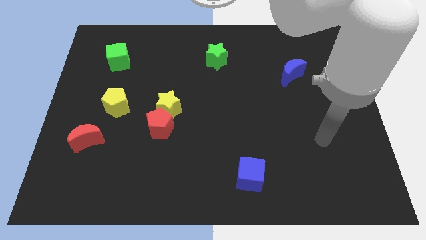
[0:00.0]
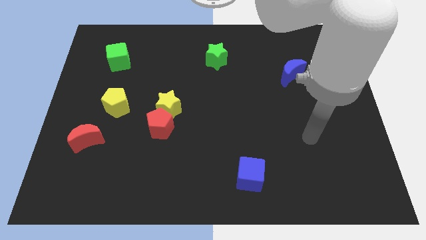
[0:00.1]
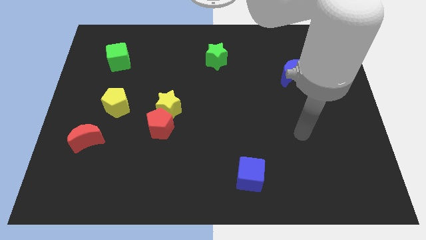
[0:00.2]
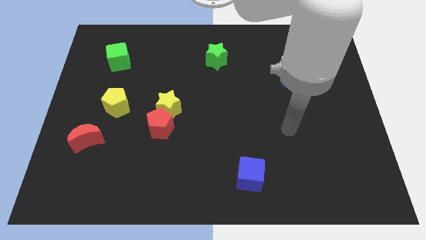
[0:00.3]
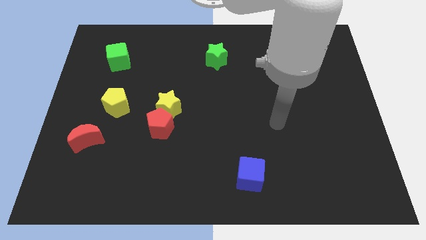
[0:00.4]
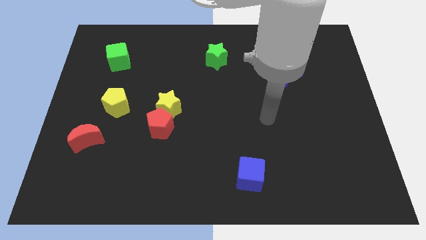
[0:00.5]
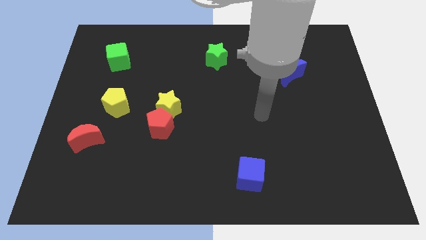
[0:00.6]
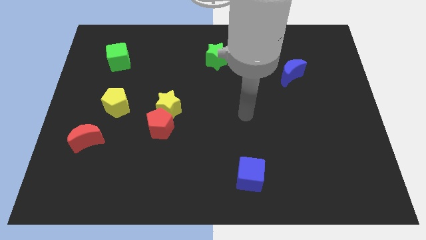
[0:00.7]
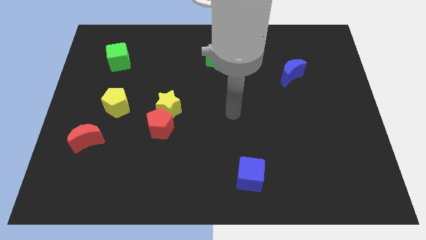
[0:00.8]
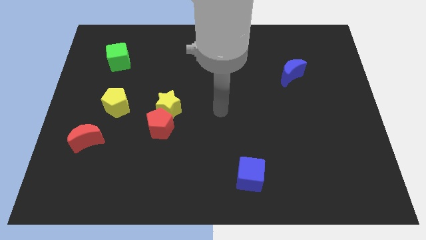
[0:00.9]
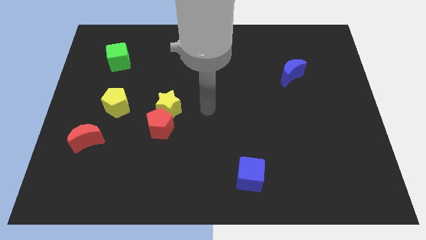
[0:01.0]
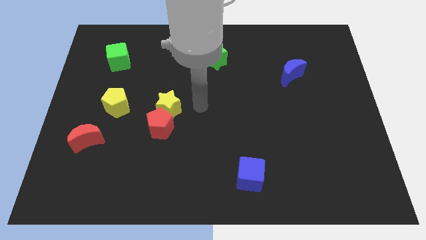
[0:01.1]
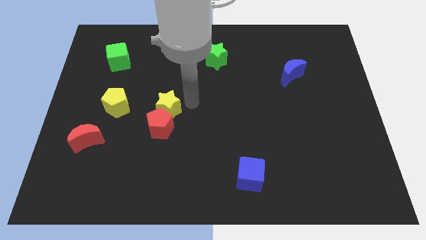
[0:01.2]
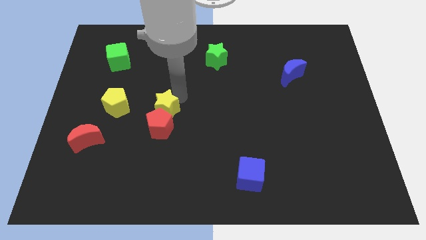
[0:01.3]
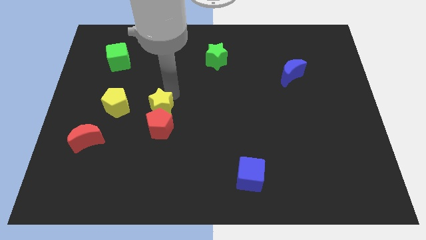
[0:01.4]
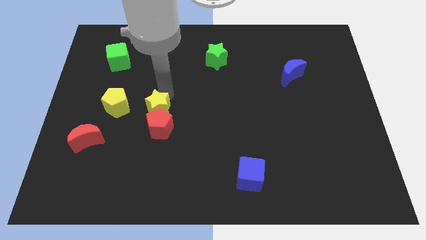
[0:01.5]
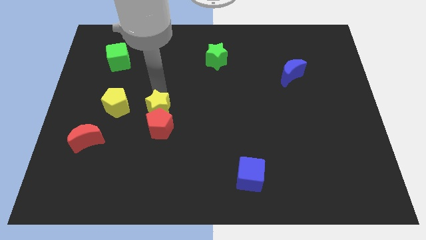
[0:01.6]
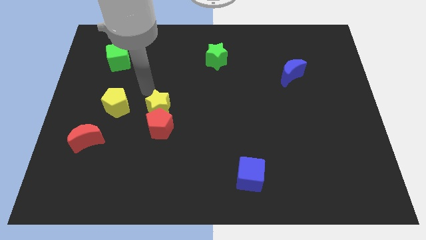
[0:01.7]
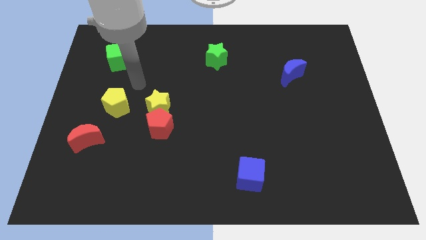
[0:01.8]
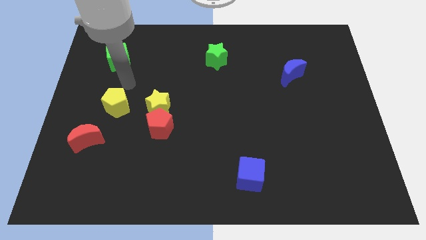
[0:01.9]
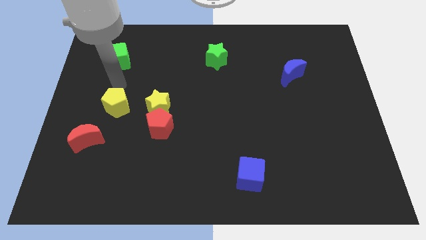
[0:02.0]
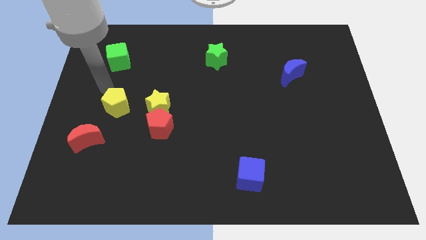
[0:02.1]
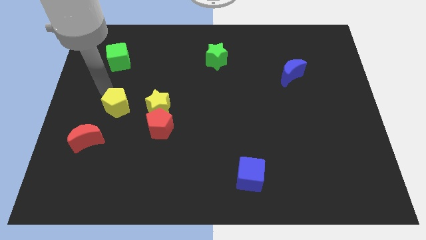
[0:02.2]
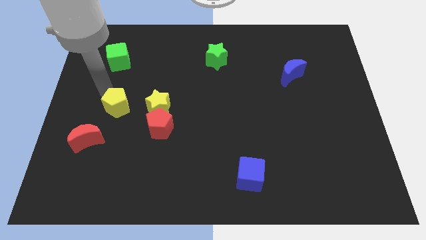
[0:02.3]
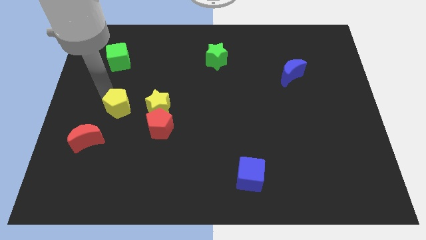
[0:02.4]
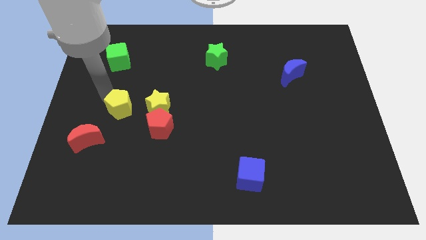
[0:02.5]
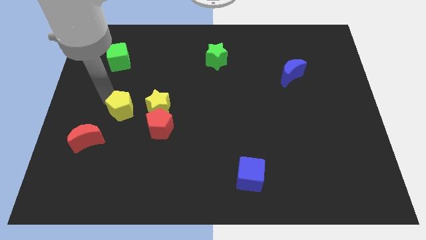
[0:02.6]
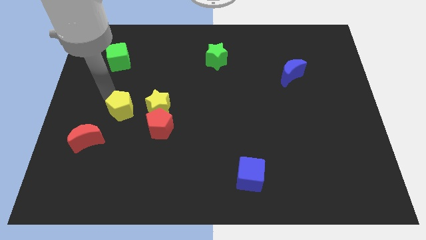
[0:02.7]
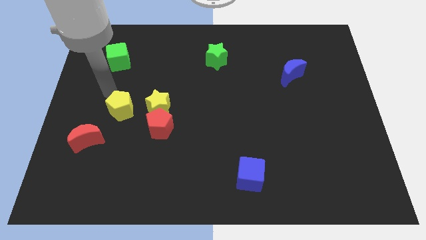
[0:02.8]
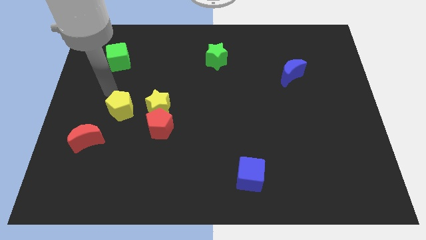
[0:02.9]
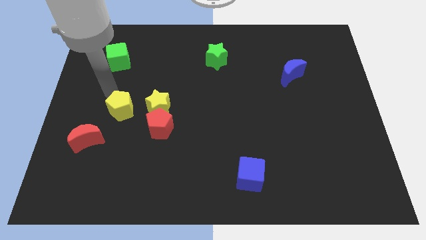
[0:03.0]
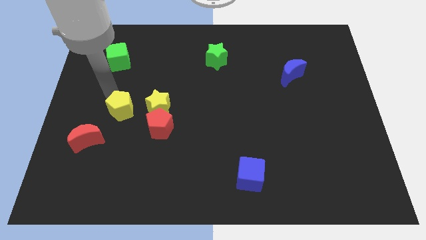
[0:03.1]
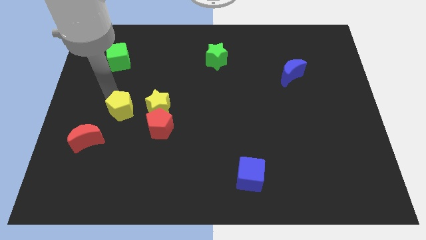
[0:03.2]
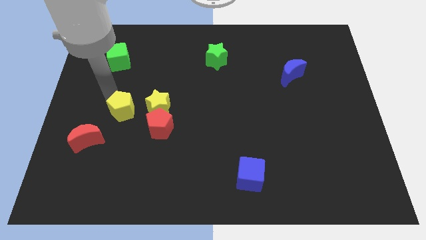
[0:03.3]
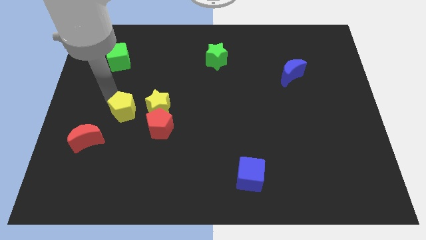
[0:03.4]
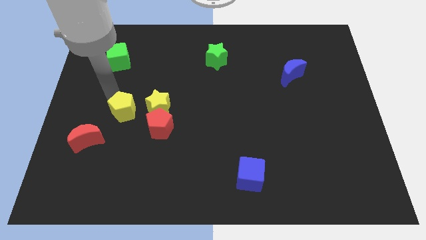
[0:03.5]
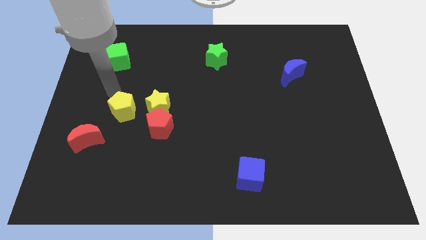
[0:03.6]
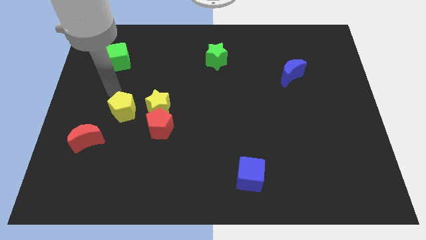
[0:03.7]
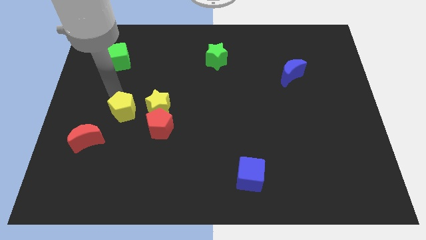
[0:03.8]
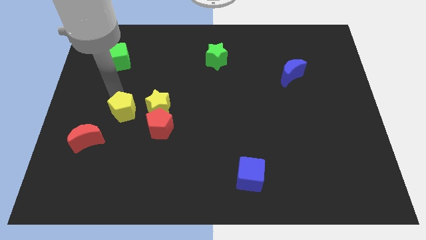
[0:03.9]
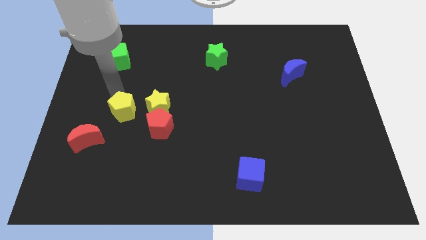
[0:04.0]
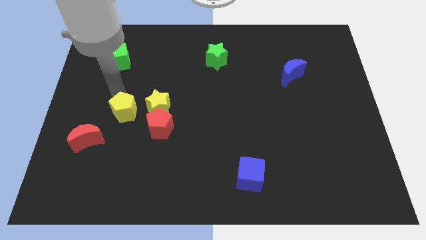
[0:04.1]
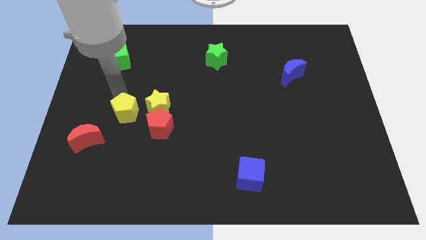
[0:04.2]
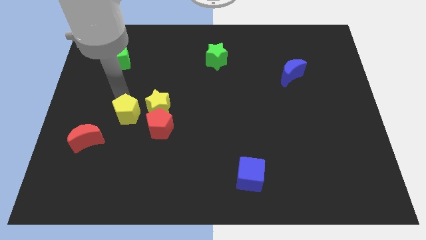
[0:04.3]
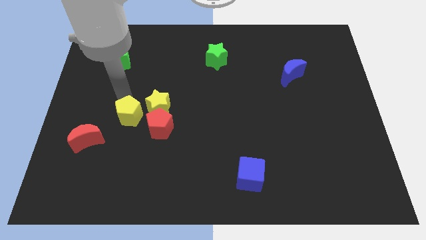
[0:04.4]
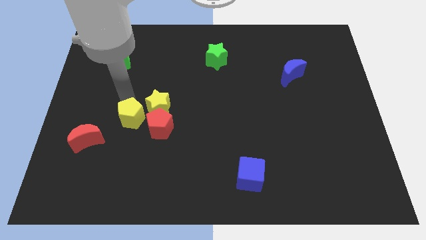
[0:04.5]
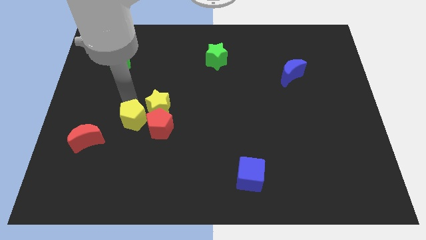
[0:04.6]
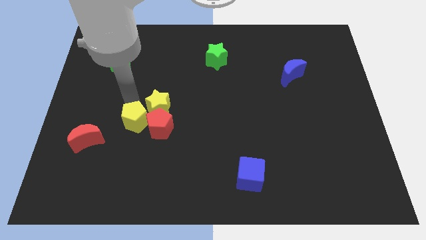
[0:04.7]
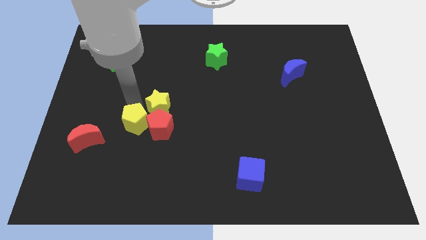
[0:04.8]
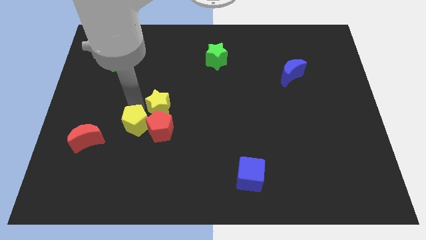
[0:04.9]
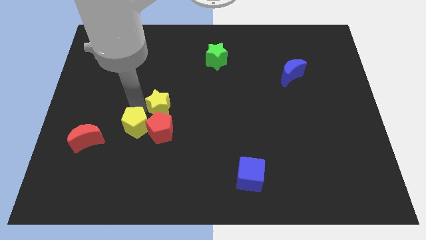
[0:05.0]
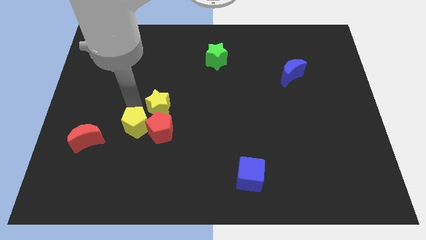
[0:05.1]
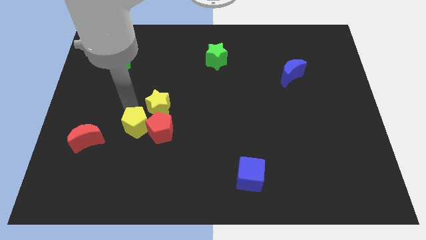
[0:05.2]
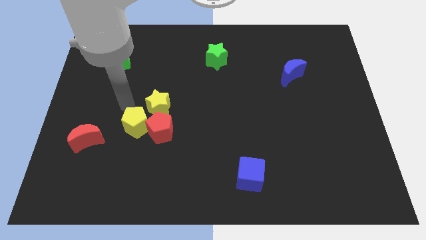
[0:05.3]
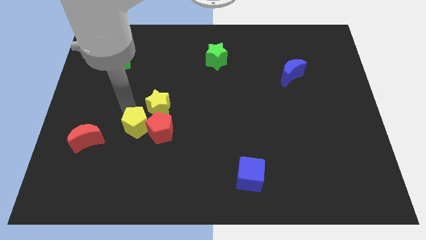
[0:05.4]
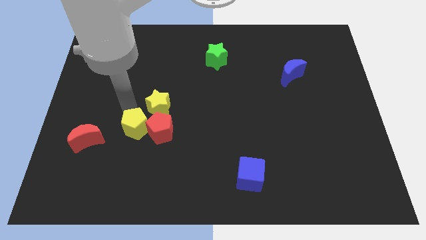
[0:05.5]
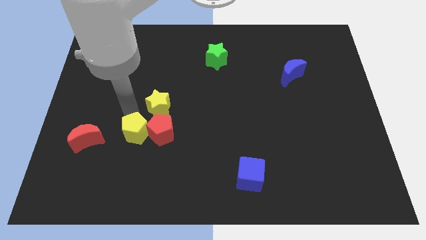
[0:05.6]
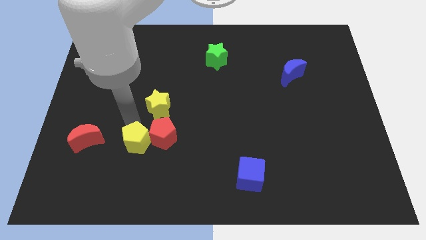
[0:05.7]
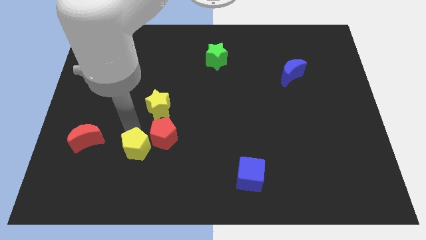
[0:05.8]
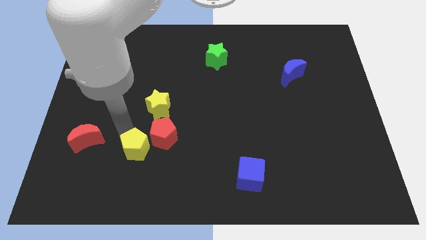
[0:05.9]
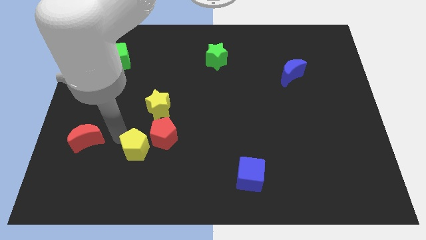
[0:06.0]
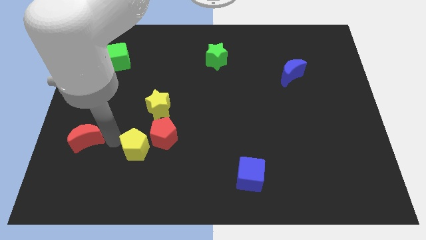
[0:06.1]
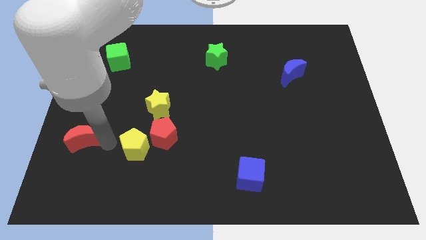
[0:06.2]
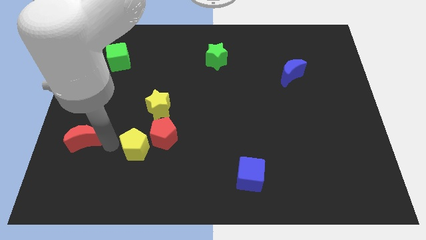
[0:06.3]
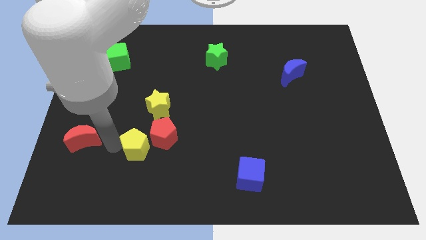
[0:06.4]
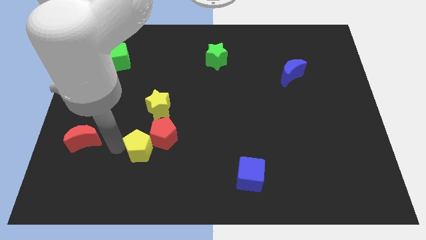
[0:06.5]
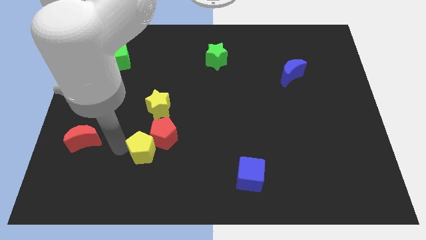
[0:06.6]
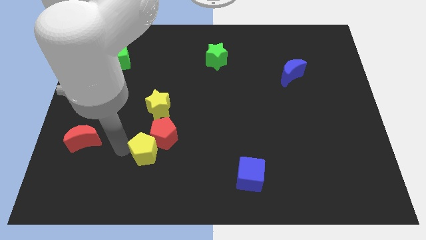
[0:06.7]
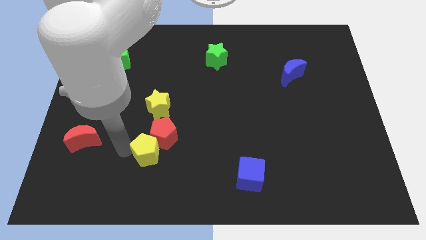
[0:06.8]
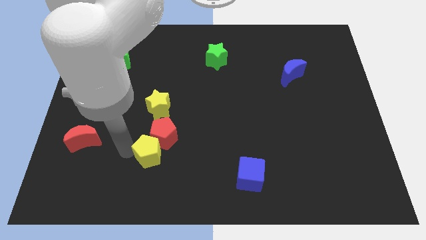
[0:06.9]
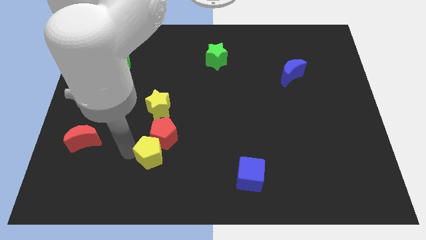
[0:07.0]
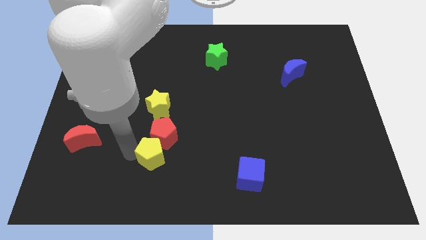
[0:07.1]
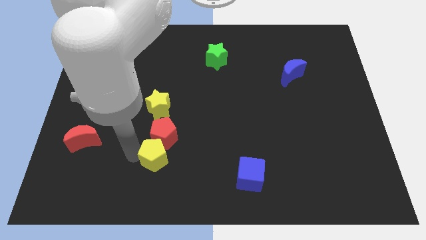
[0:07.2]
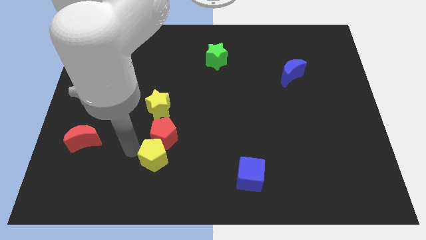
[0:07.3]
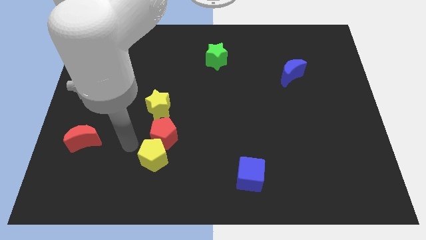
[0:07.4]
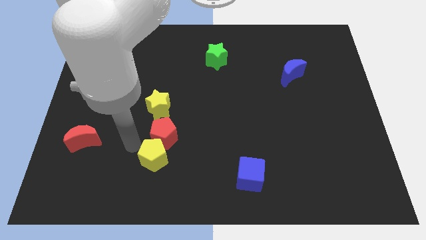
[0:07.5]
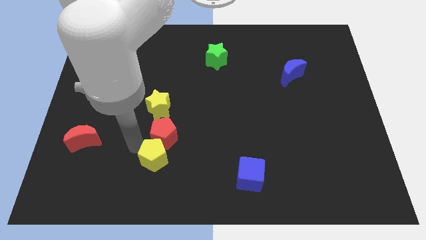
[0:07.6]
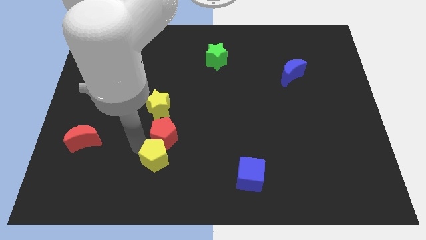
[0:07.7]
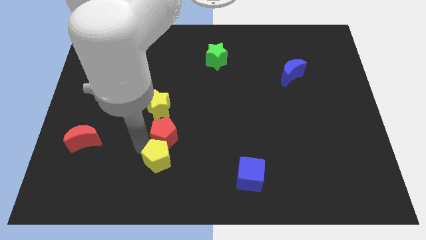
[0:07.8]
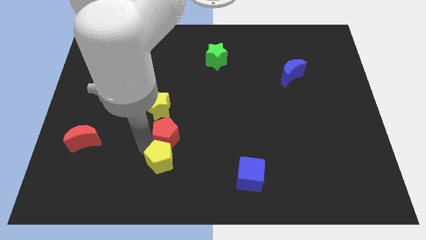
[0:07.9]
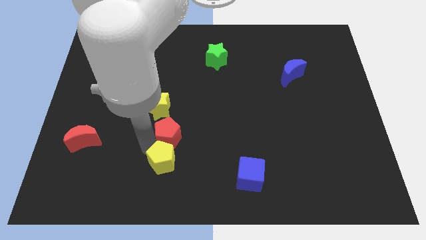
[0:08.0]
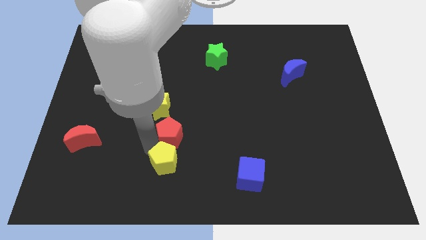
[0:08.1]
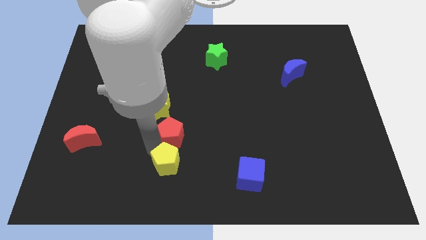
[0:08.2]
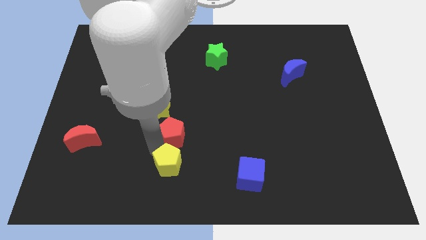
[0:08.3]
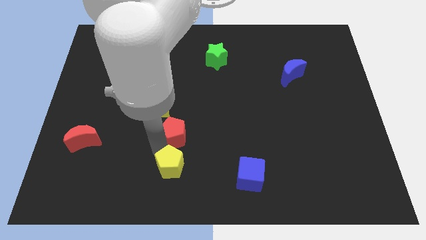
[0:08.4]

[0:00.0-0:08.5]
put the yellow pentagon to the bottom
